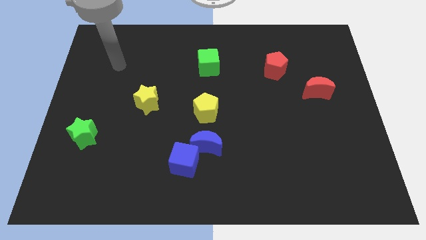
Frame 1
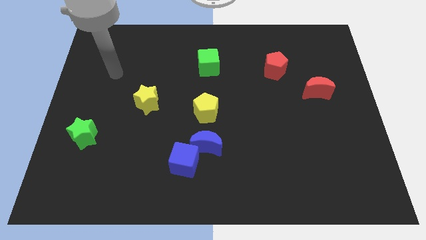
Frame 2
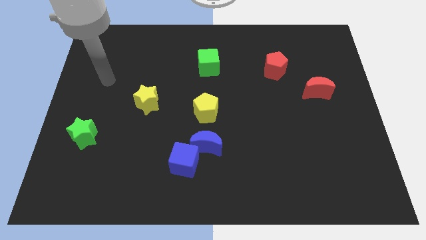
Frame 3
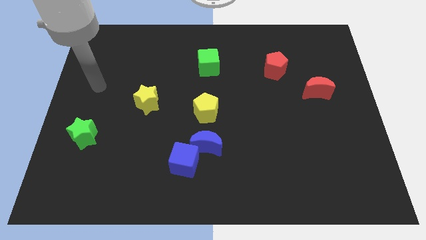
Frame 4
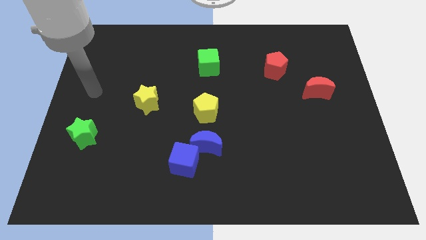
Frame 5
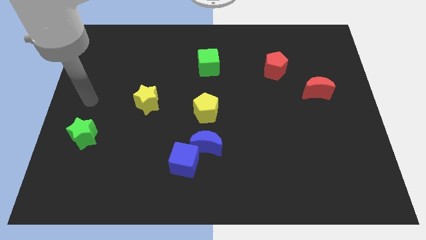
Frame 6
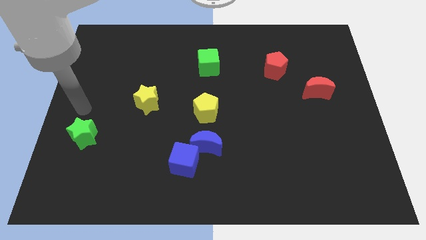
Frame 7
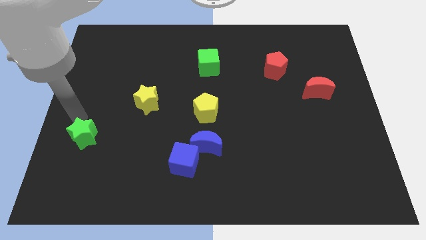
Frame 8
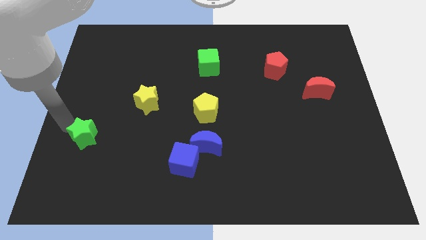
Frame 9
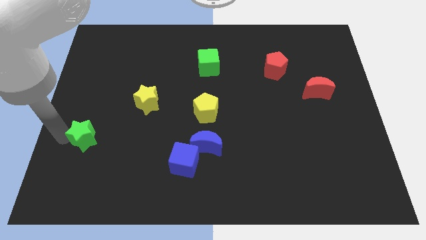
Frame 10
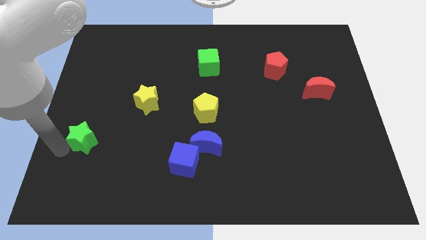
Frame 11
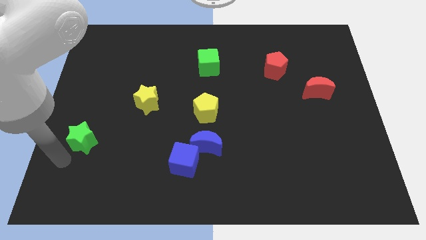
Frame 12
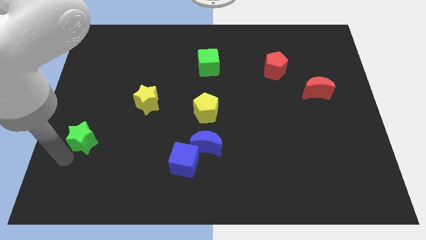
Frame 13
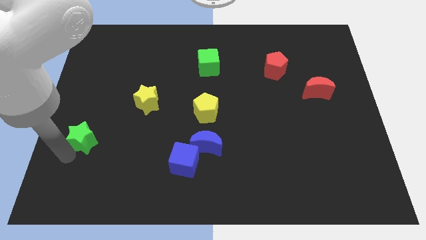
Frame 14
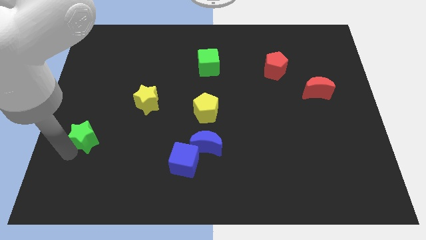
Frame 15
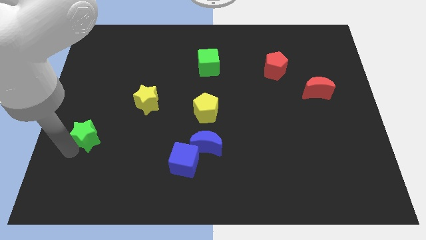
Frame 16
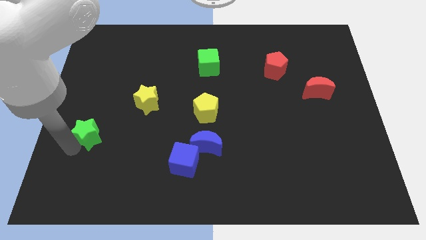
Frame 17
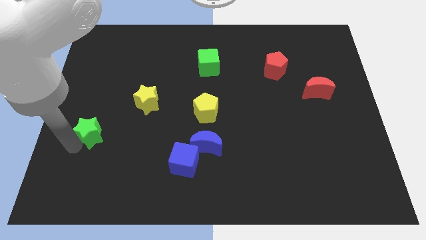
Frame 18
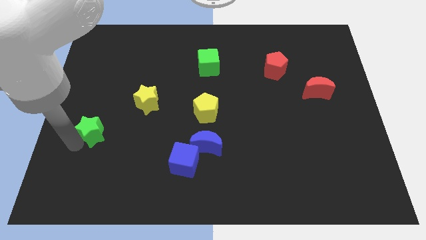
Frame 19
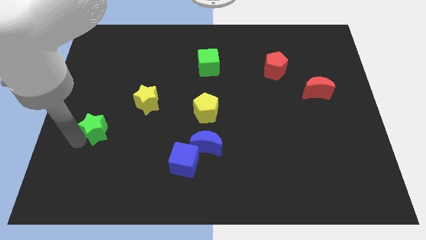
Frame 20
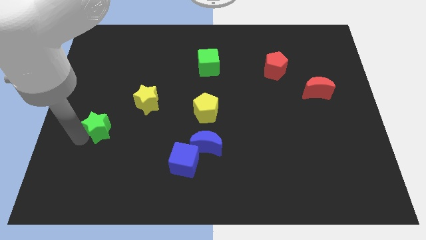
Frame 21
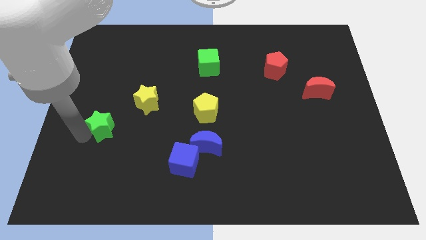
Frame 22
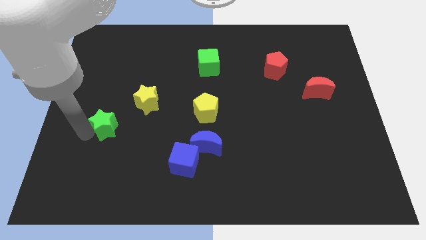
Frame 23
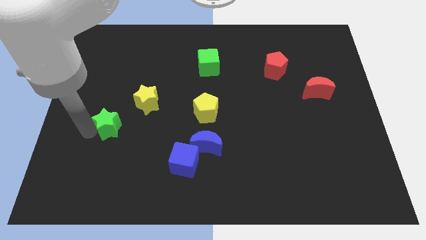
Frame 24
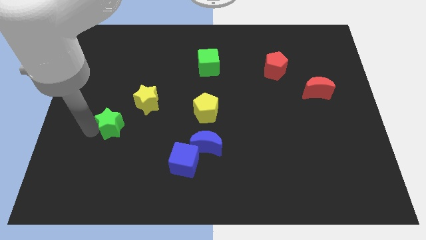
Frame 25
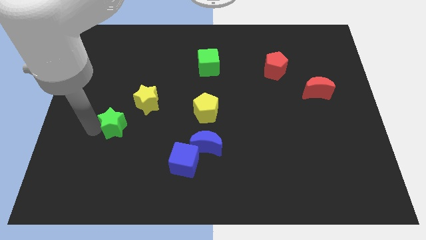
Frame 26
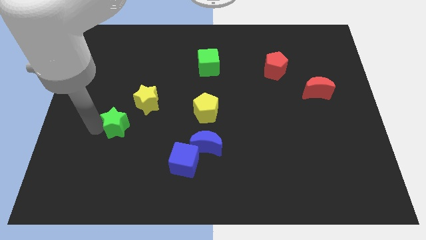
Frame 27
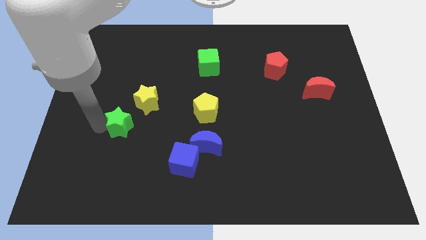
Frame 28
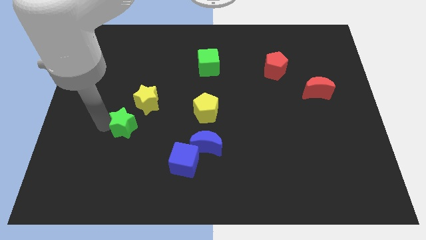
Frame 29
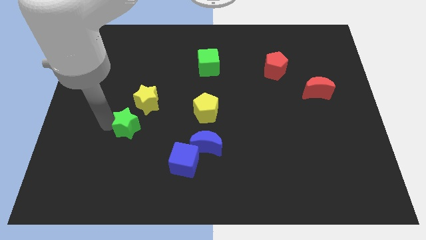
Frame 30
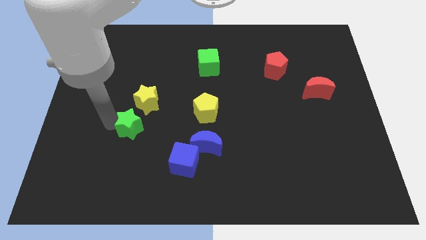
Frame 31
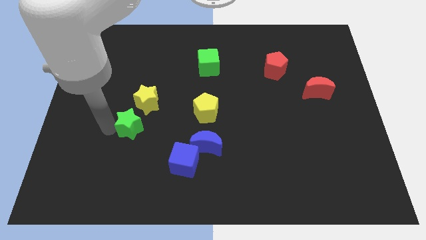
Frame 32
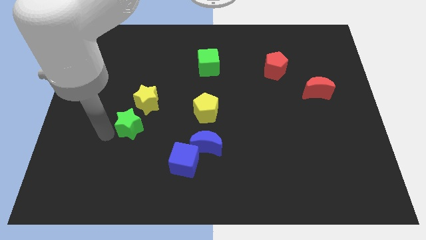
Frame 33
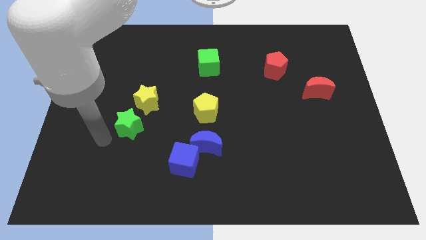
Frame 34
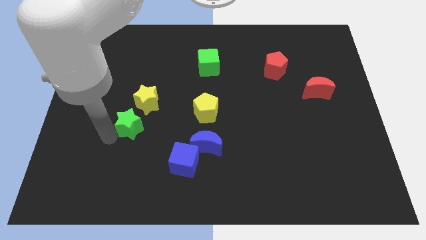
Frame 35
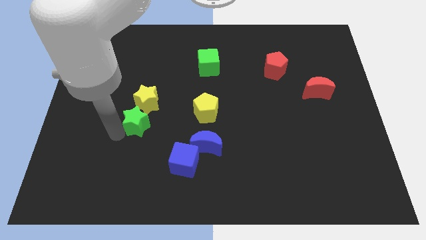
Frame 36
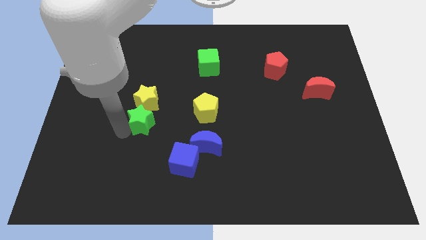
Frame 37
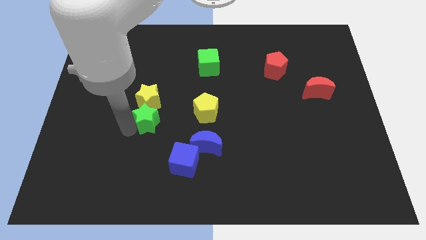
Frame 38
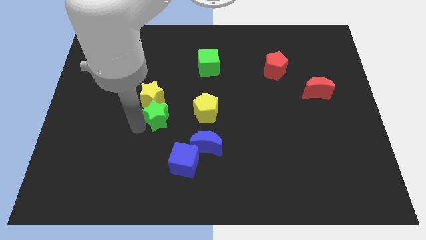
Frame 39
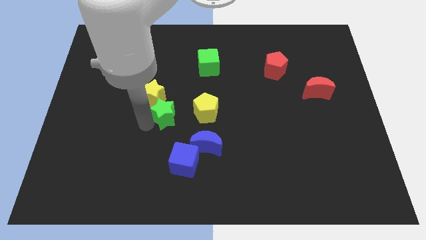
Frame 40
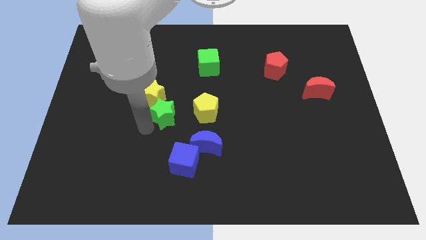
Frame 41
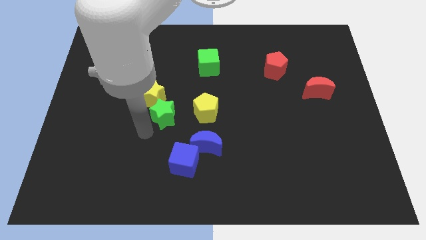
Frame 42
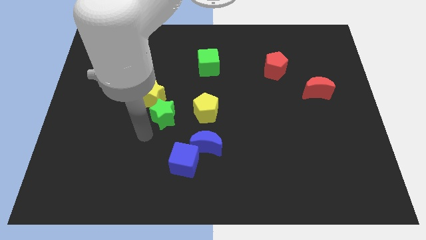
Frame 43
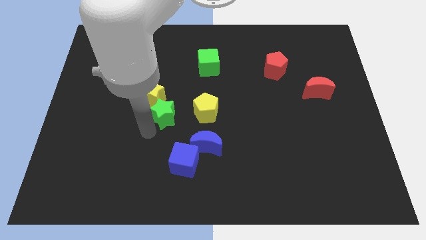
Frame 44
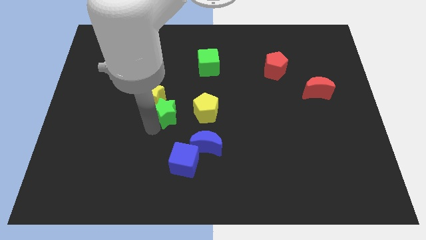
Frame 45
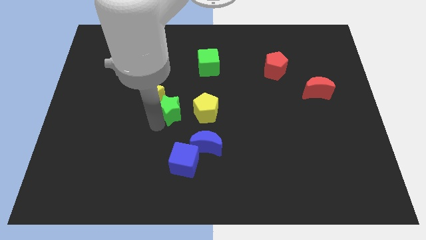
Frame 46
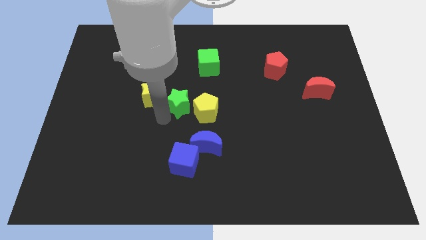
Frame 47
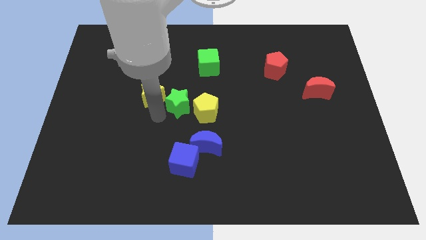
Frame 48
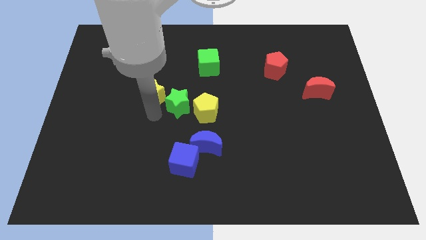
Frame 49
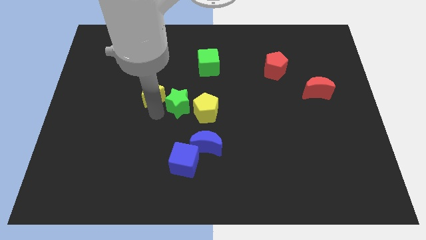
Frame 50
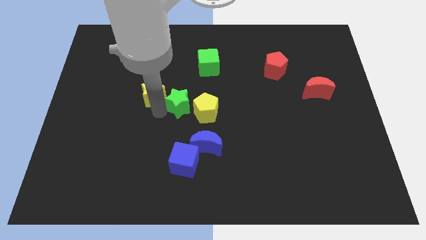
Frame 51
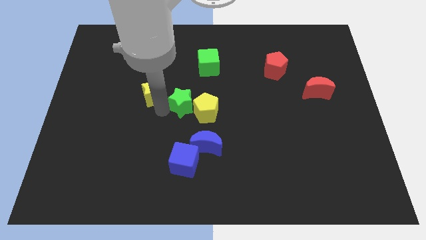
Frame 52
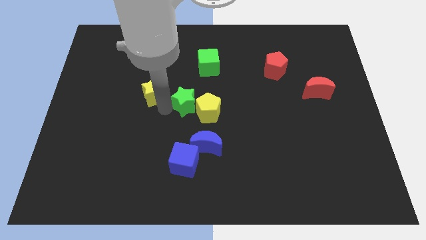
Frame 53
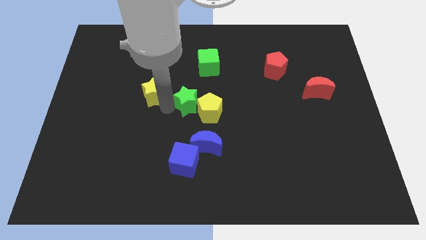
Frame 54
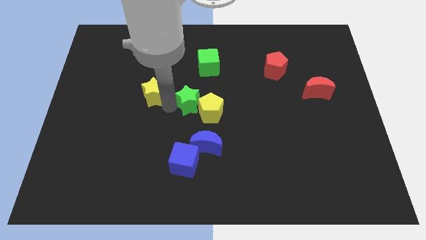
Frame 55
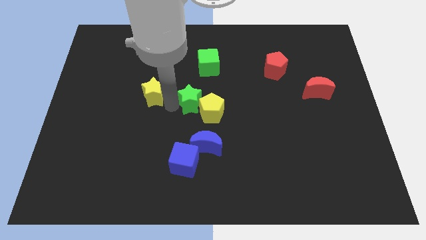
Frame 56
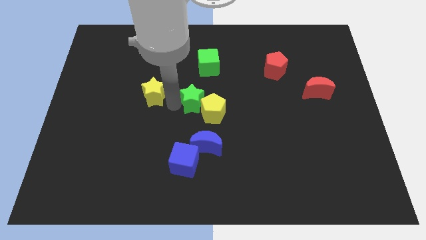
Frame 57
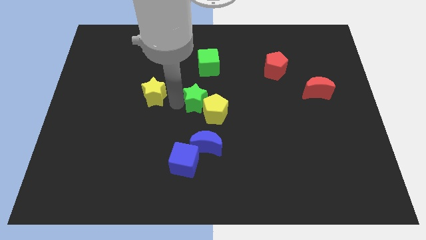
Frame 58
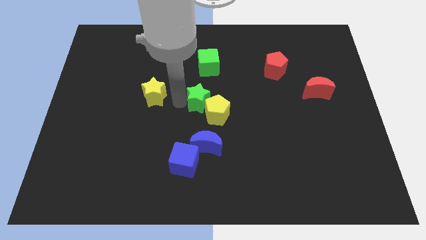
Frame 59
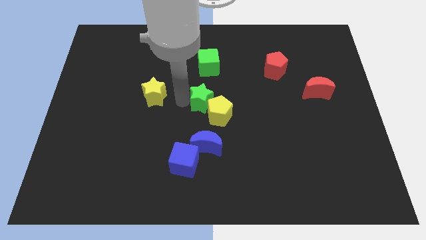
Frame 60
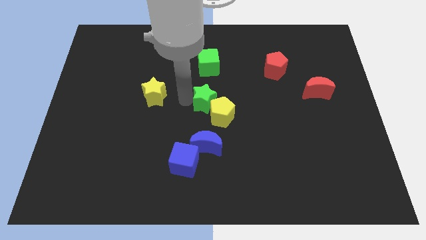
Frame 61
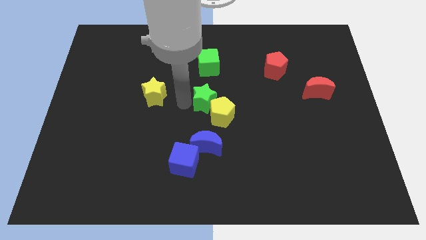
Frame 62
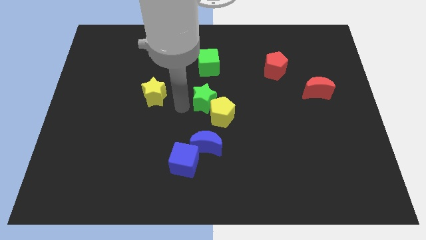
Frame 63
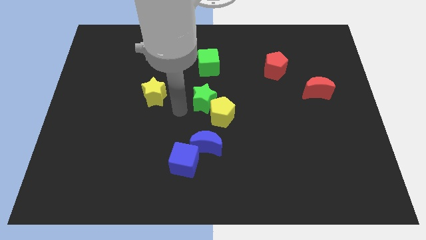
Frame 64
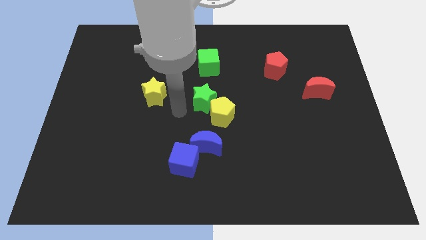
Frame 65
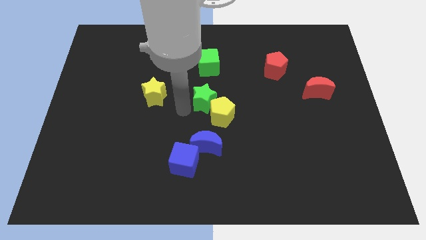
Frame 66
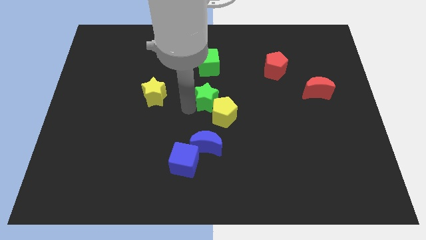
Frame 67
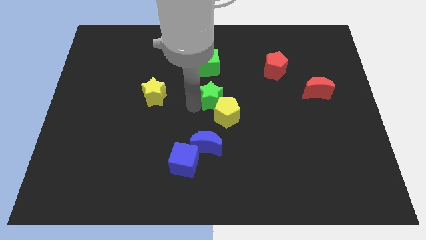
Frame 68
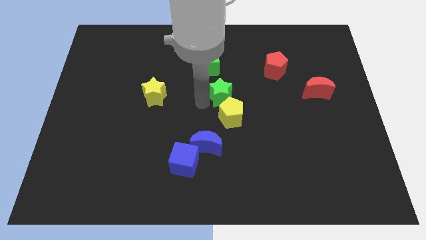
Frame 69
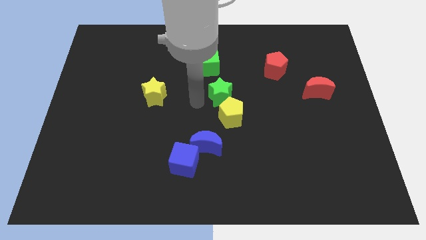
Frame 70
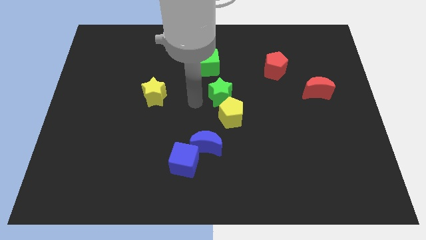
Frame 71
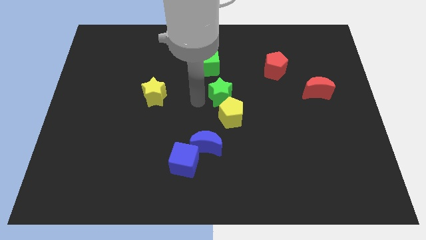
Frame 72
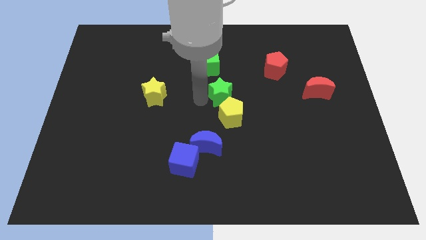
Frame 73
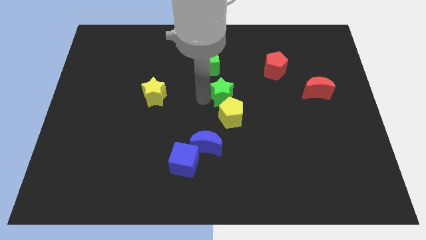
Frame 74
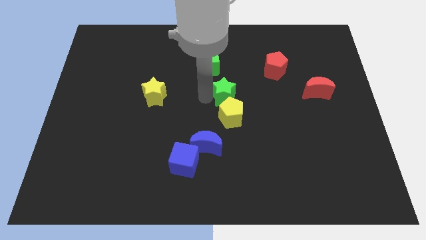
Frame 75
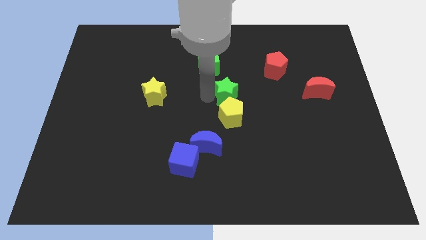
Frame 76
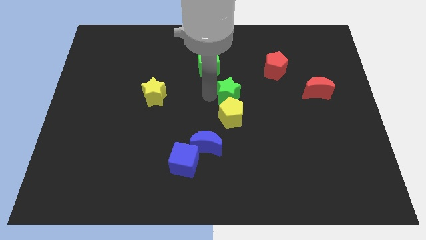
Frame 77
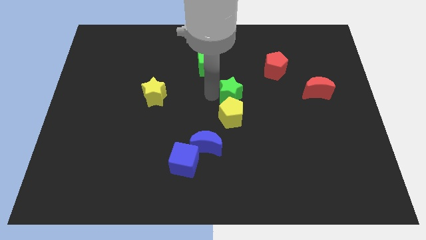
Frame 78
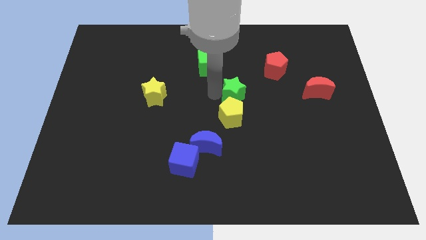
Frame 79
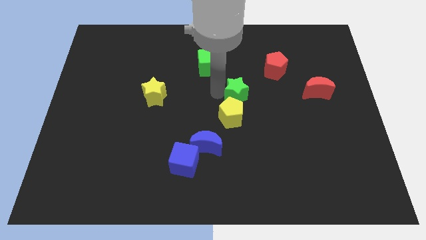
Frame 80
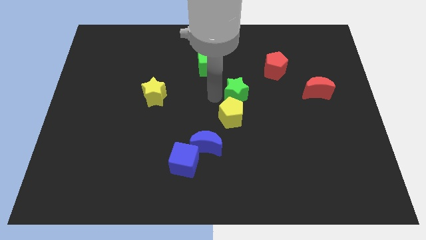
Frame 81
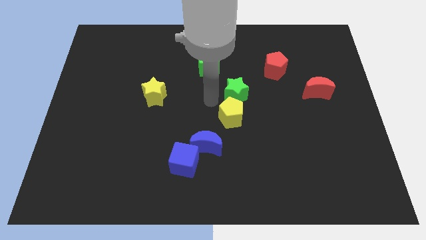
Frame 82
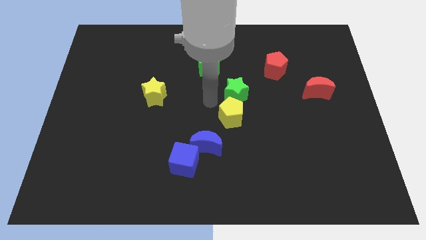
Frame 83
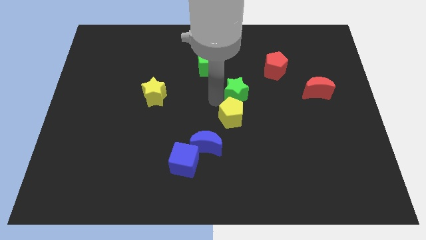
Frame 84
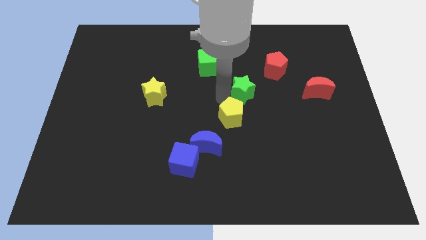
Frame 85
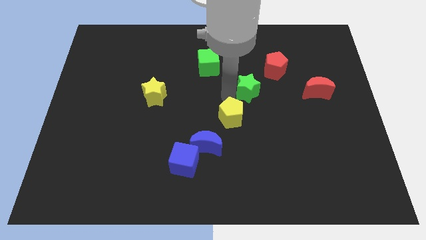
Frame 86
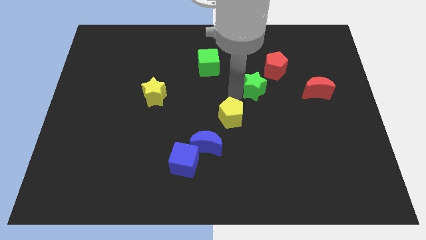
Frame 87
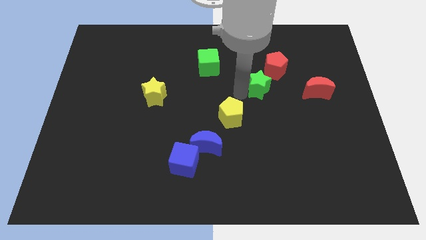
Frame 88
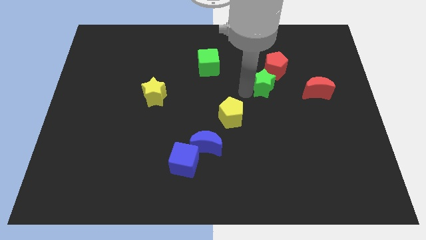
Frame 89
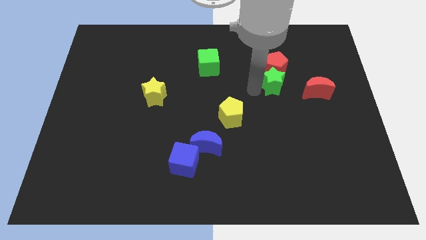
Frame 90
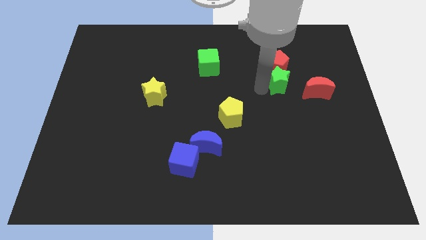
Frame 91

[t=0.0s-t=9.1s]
push the green star to the top left of the red moon
